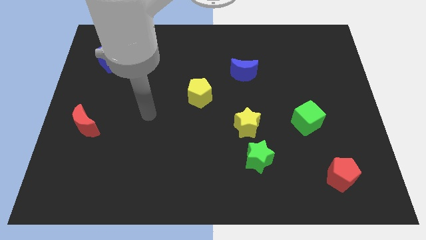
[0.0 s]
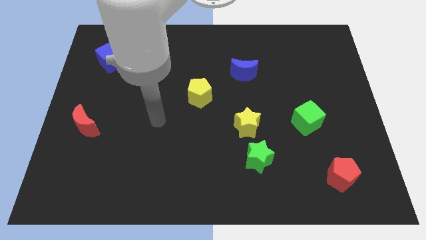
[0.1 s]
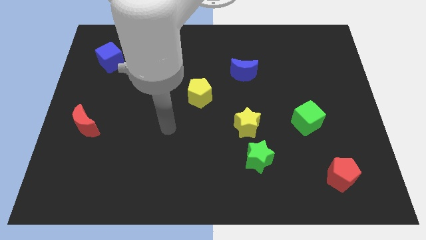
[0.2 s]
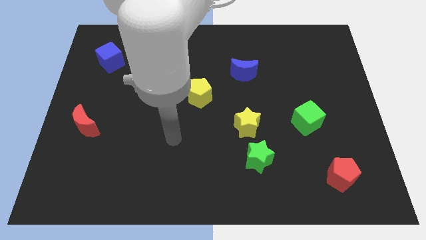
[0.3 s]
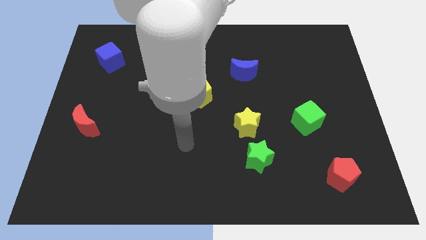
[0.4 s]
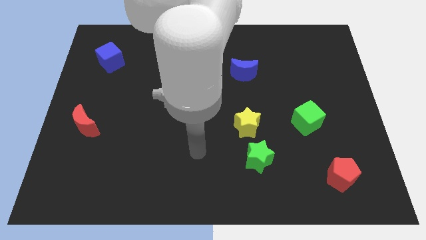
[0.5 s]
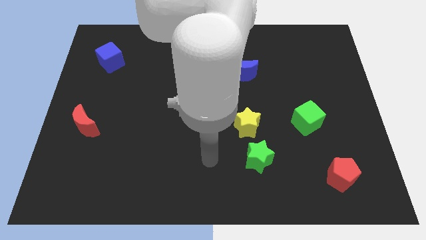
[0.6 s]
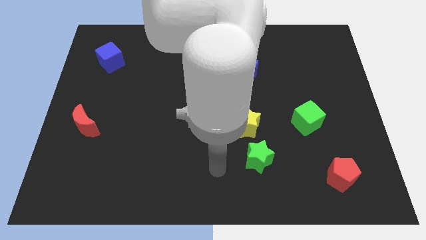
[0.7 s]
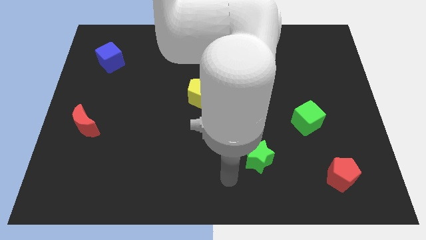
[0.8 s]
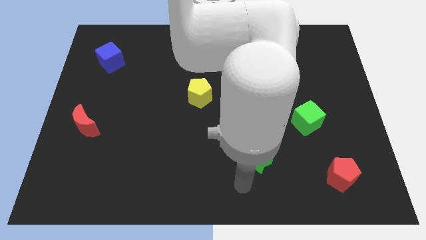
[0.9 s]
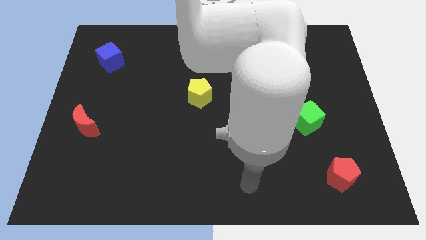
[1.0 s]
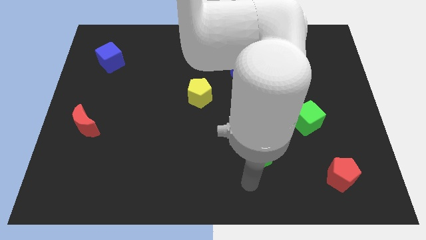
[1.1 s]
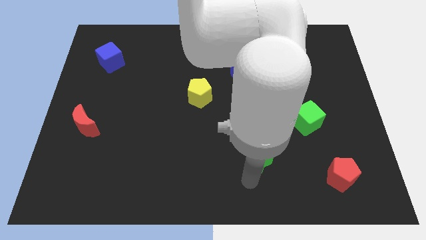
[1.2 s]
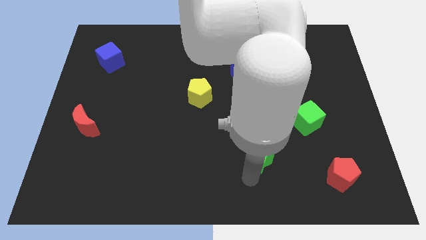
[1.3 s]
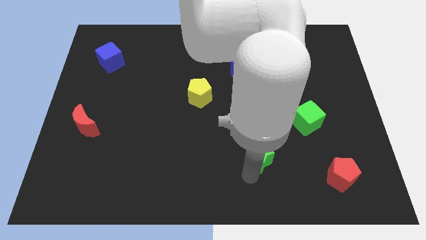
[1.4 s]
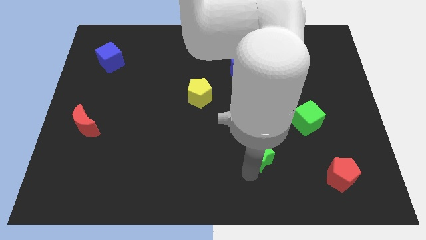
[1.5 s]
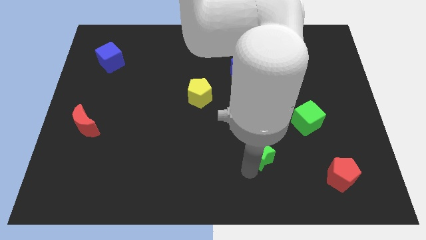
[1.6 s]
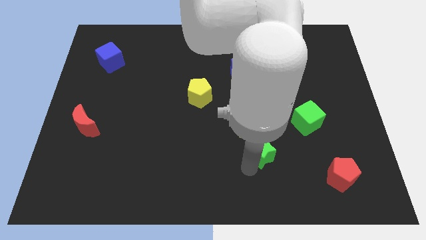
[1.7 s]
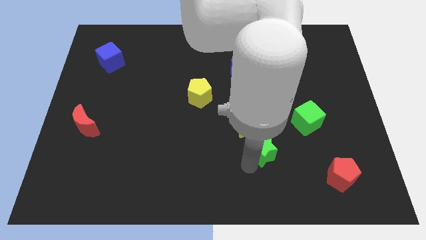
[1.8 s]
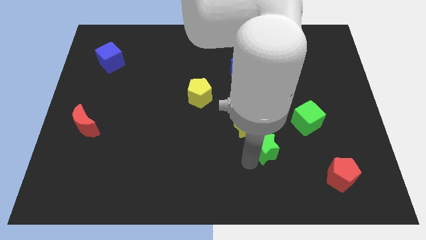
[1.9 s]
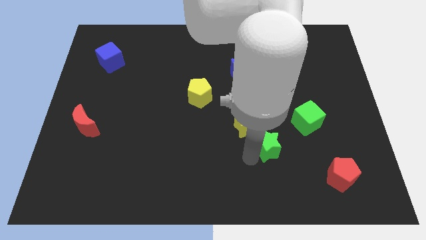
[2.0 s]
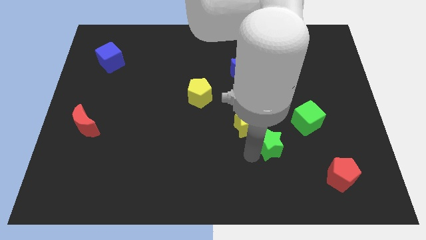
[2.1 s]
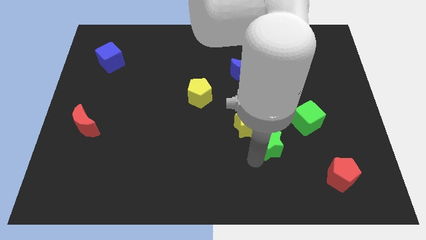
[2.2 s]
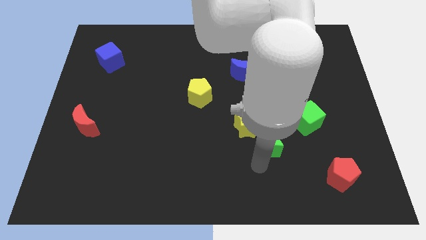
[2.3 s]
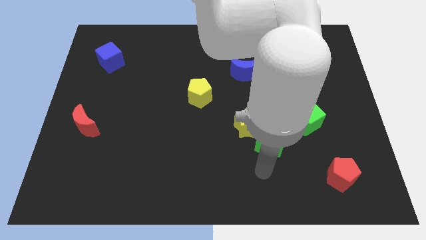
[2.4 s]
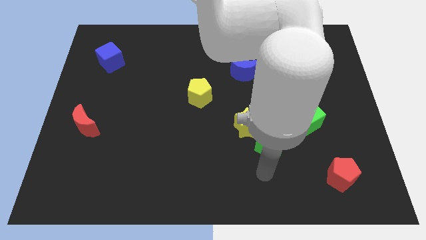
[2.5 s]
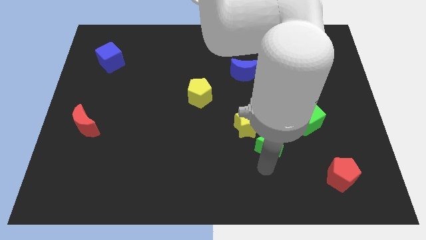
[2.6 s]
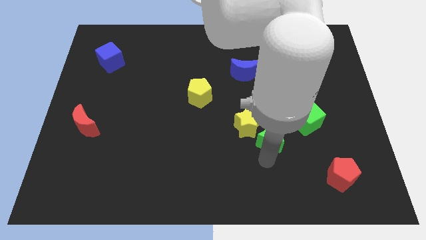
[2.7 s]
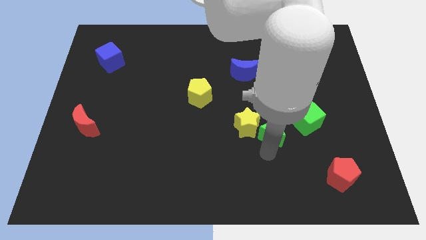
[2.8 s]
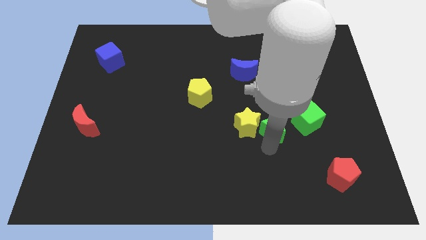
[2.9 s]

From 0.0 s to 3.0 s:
move the green star upwards slightly

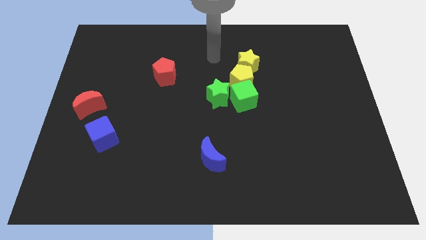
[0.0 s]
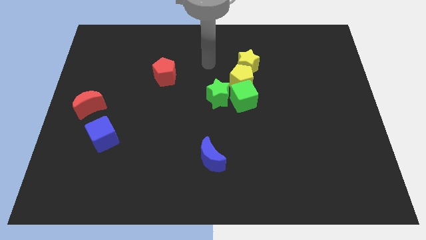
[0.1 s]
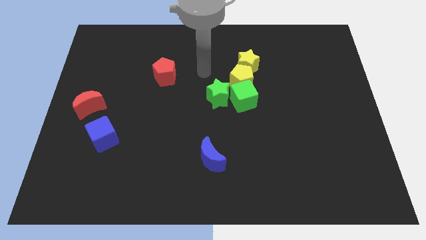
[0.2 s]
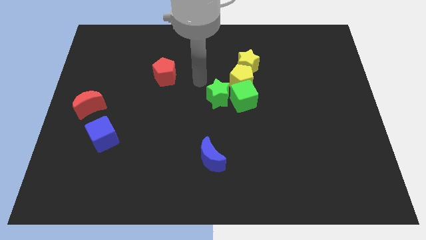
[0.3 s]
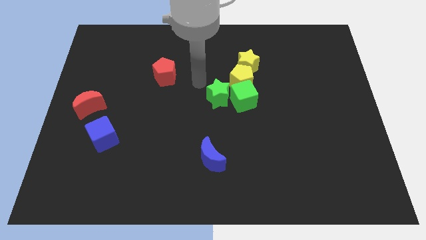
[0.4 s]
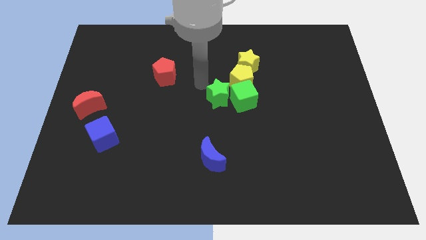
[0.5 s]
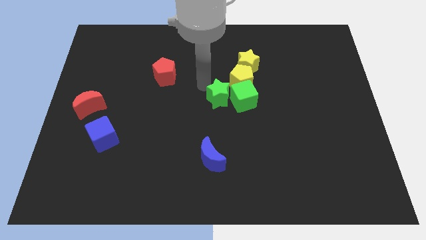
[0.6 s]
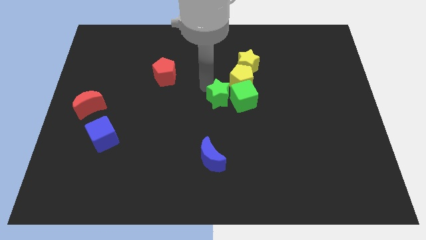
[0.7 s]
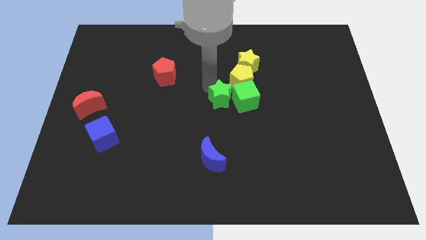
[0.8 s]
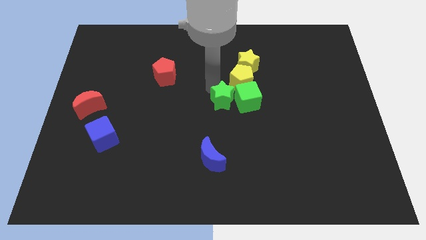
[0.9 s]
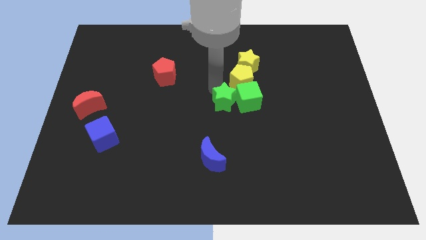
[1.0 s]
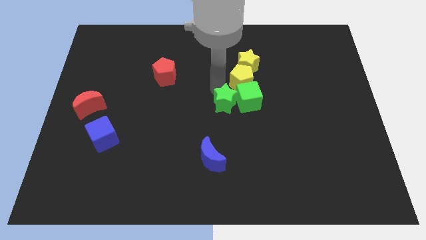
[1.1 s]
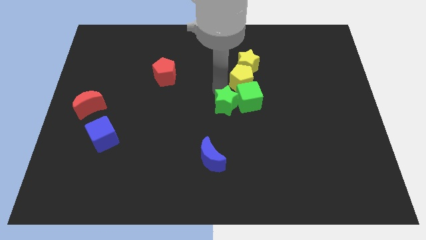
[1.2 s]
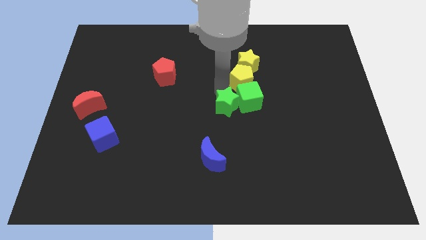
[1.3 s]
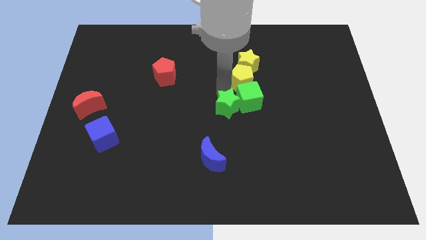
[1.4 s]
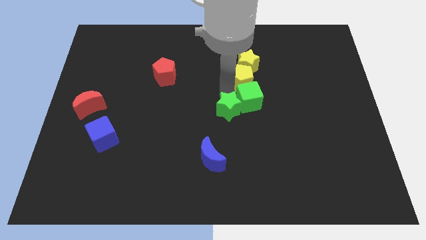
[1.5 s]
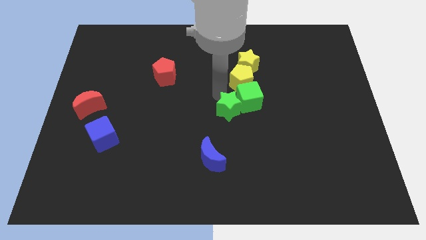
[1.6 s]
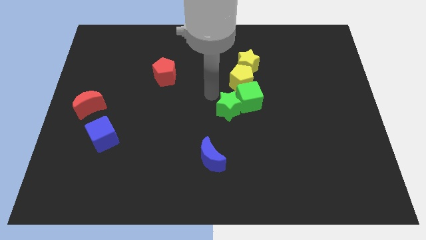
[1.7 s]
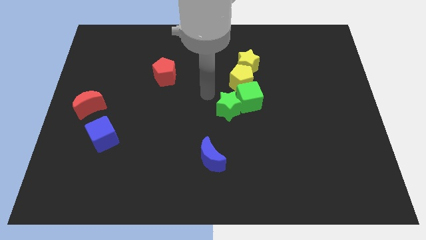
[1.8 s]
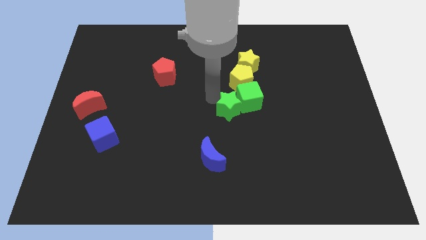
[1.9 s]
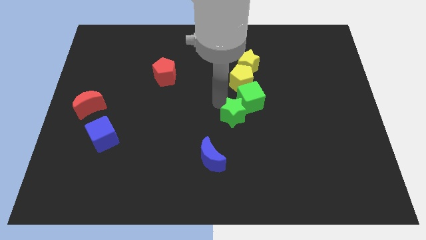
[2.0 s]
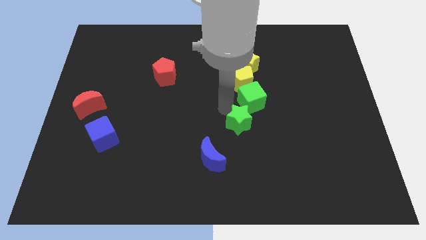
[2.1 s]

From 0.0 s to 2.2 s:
slightly move the green star down and then right

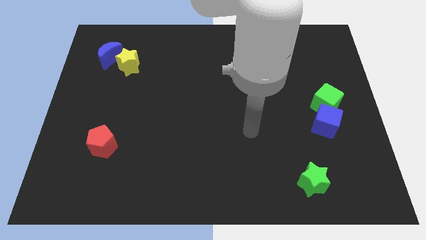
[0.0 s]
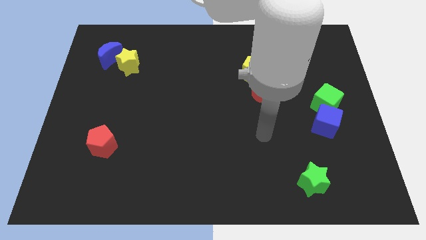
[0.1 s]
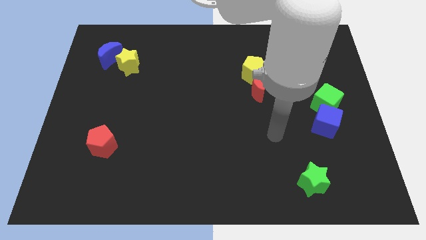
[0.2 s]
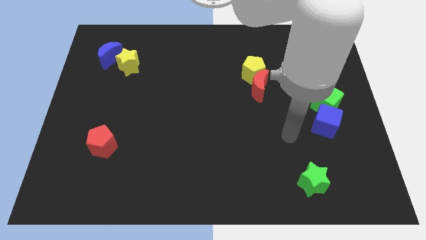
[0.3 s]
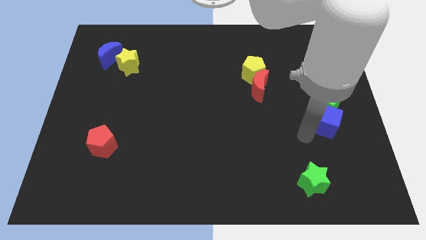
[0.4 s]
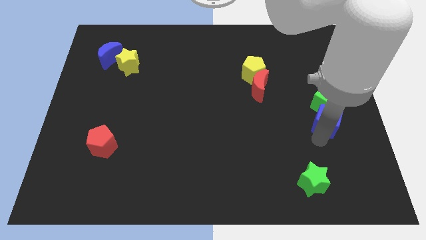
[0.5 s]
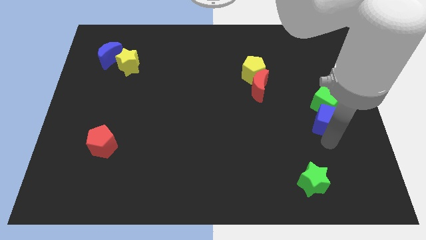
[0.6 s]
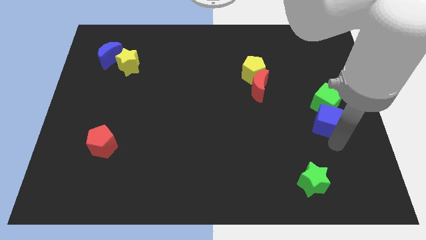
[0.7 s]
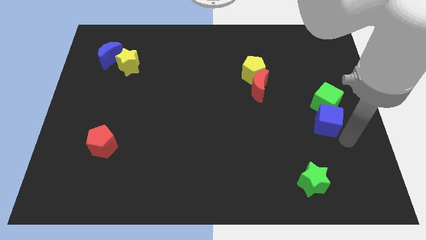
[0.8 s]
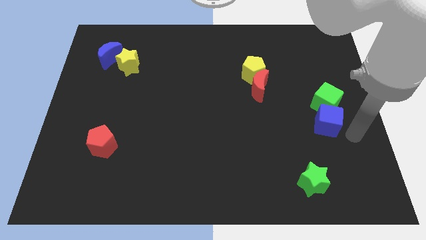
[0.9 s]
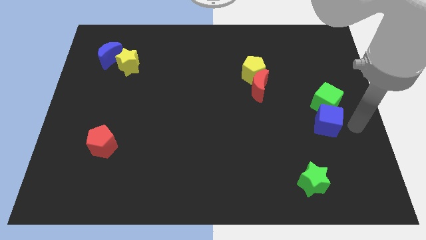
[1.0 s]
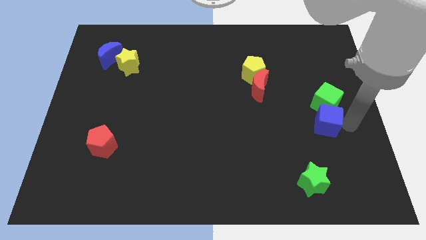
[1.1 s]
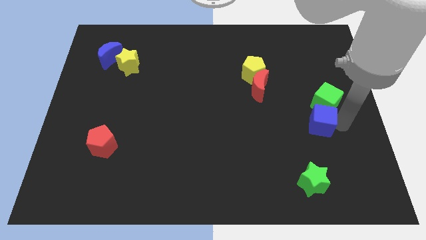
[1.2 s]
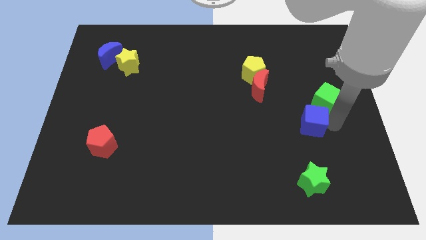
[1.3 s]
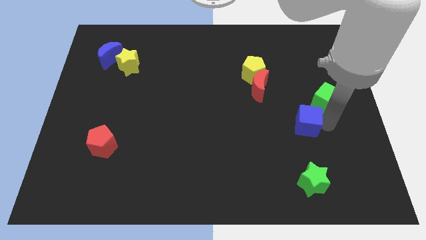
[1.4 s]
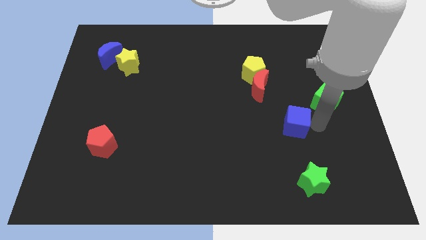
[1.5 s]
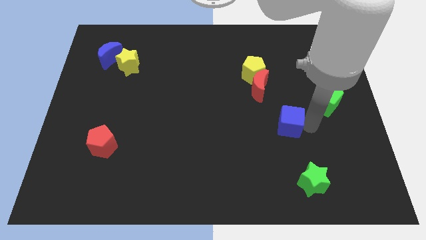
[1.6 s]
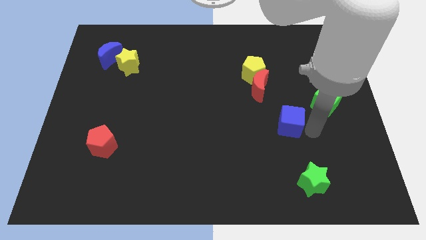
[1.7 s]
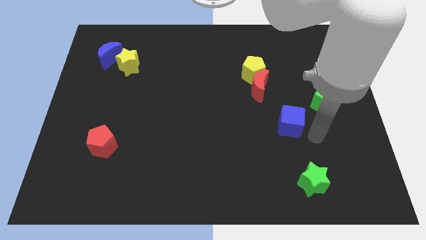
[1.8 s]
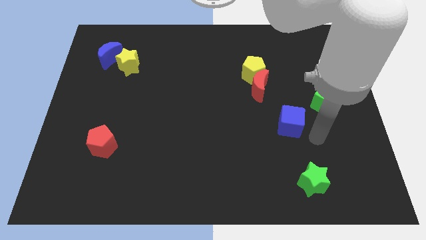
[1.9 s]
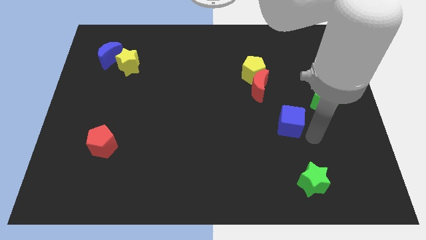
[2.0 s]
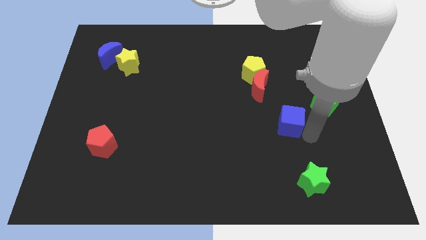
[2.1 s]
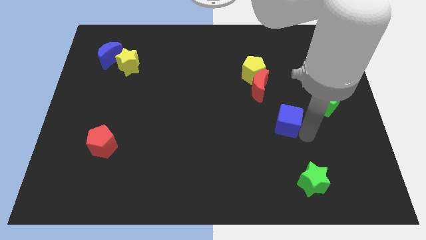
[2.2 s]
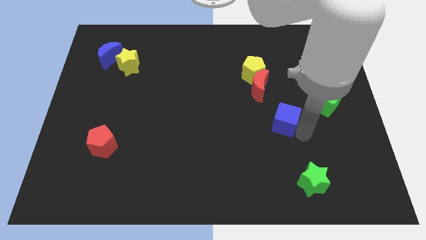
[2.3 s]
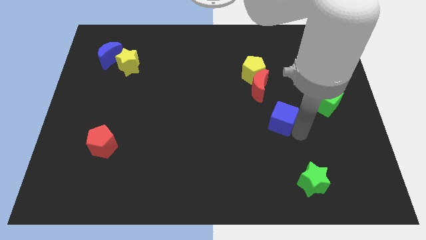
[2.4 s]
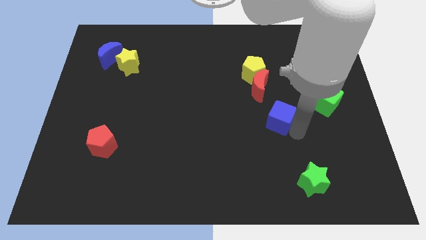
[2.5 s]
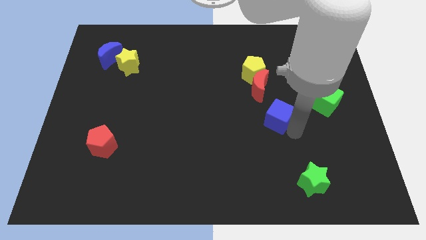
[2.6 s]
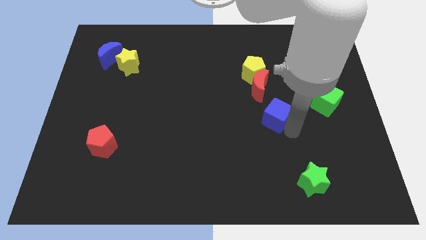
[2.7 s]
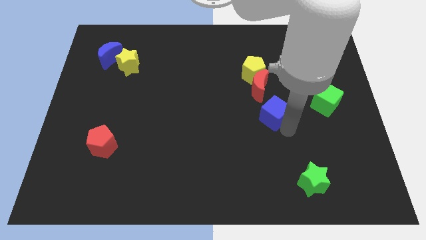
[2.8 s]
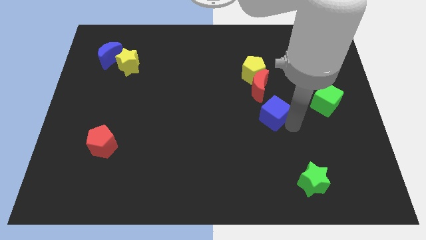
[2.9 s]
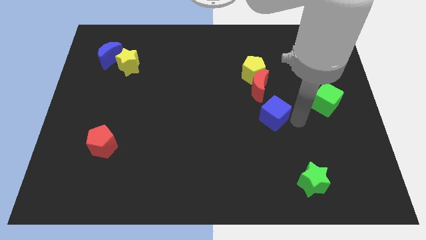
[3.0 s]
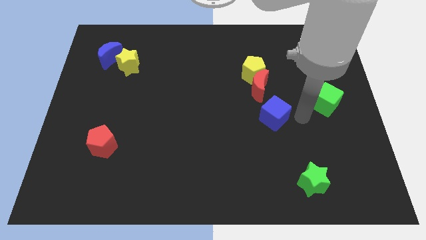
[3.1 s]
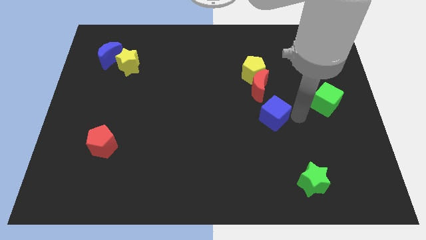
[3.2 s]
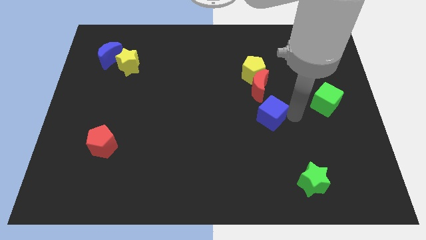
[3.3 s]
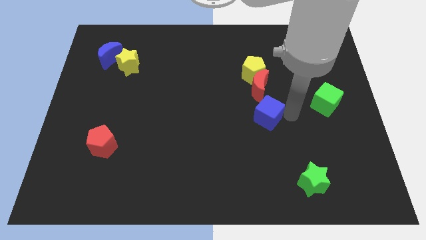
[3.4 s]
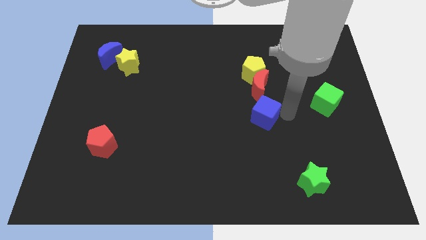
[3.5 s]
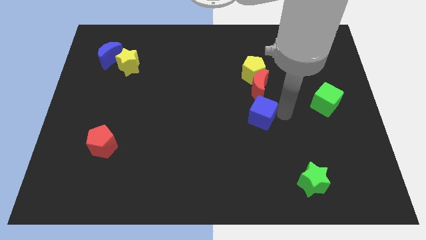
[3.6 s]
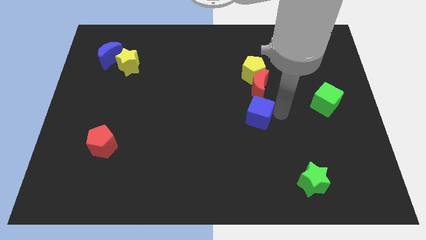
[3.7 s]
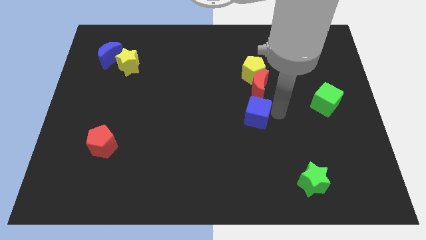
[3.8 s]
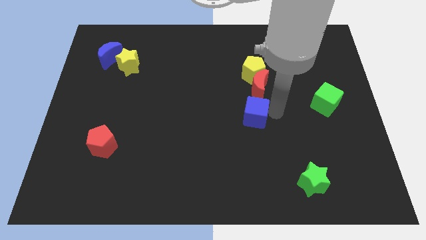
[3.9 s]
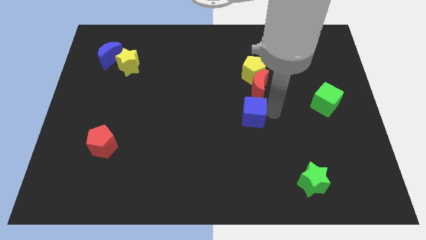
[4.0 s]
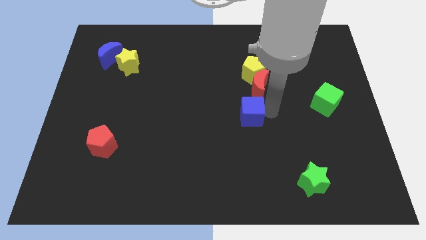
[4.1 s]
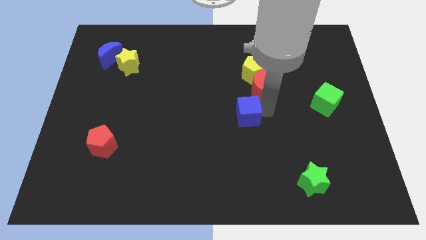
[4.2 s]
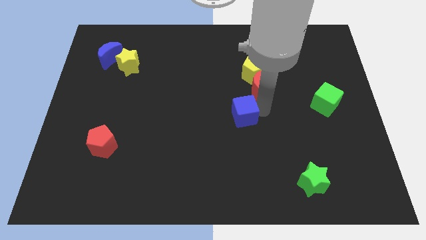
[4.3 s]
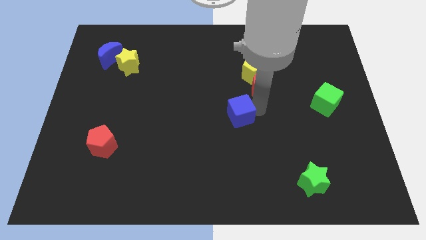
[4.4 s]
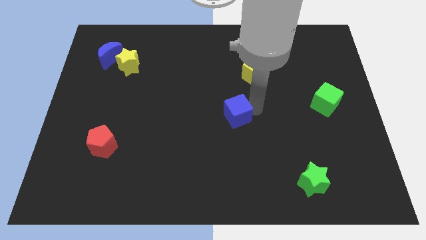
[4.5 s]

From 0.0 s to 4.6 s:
move the blue cube to the left
